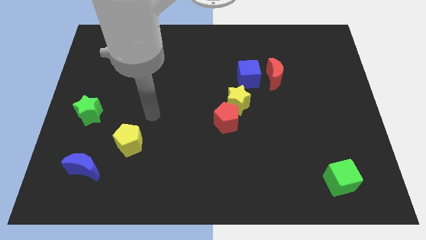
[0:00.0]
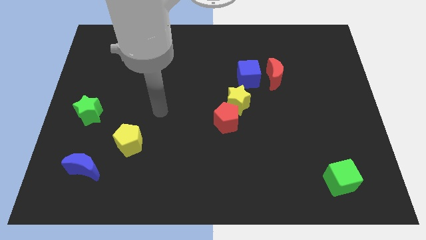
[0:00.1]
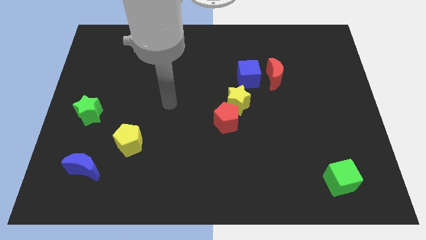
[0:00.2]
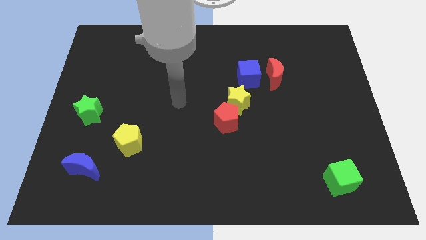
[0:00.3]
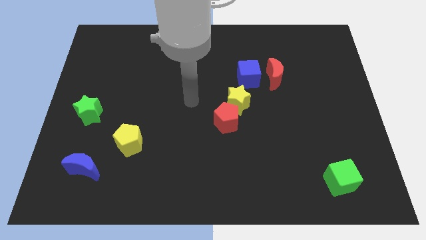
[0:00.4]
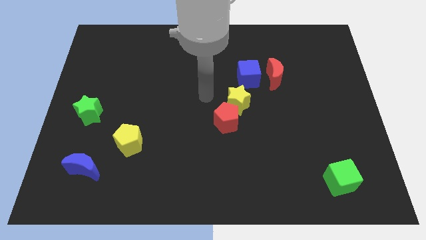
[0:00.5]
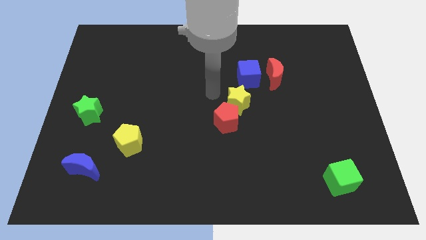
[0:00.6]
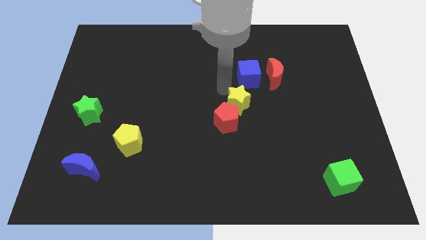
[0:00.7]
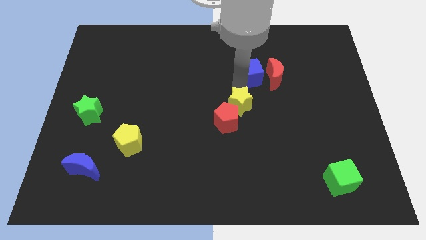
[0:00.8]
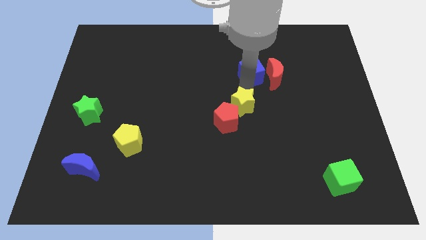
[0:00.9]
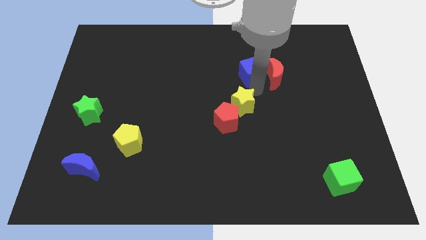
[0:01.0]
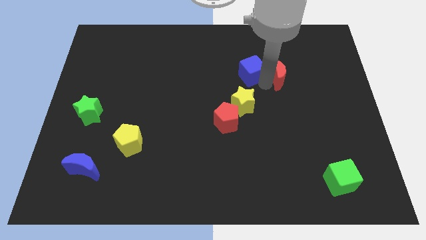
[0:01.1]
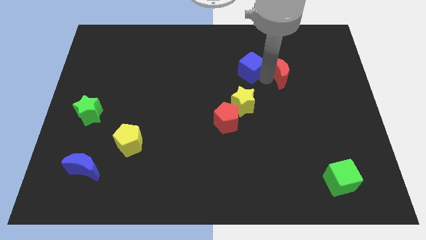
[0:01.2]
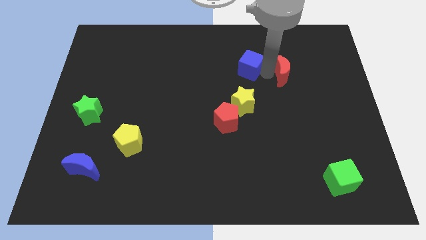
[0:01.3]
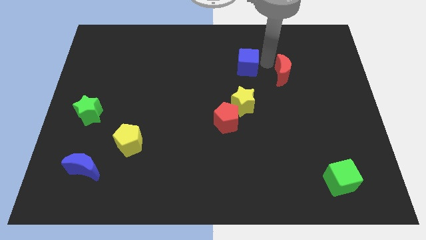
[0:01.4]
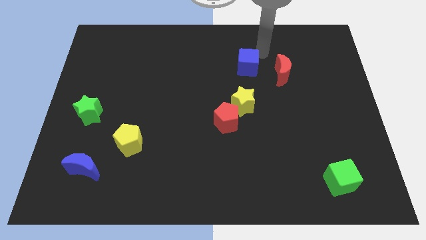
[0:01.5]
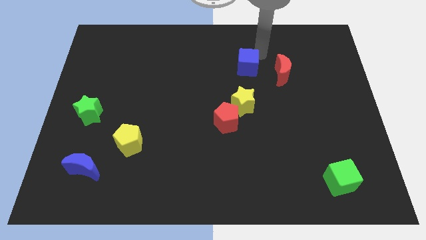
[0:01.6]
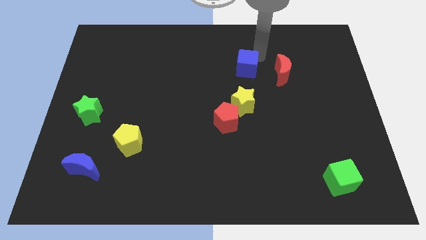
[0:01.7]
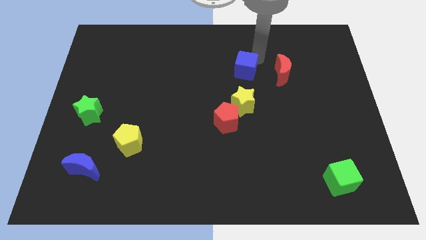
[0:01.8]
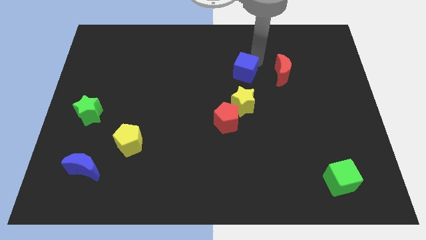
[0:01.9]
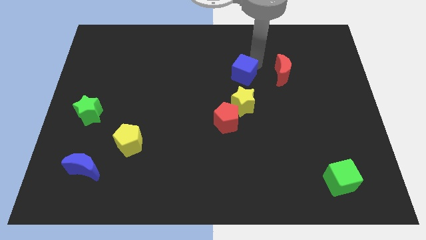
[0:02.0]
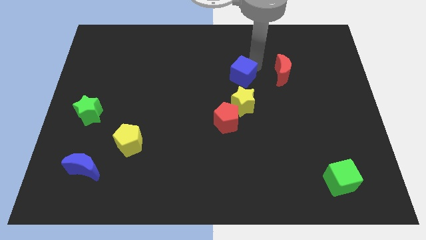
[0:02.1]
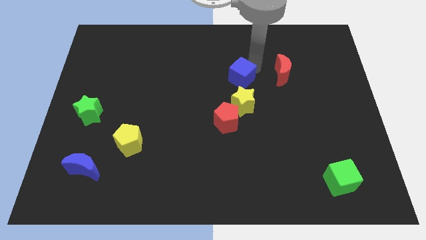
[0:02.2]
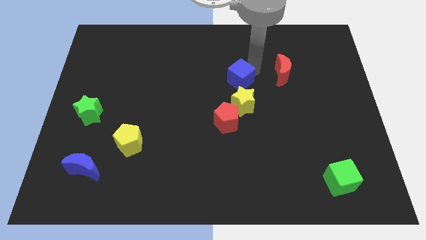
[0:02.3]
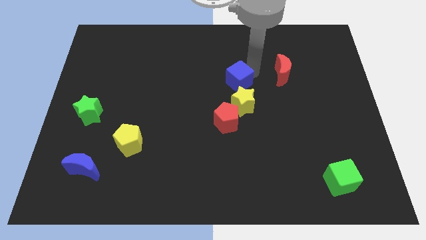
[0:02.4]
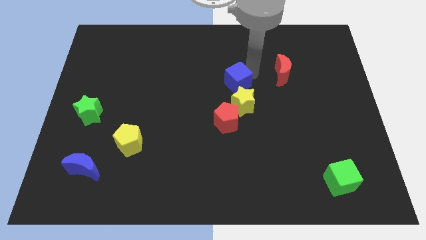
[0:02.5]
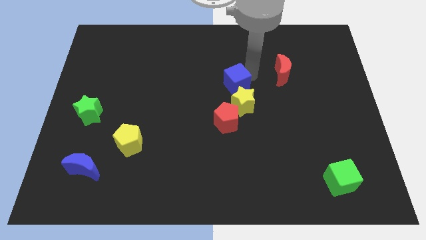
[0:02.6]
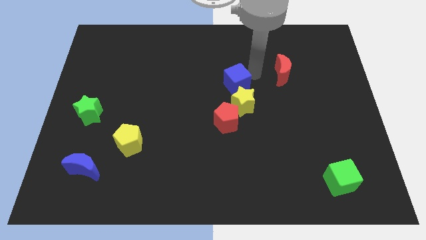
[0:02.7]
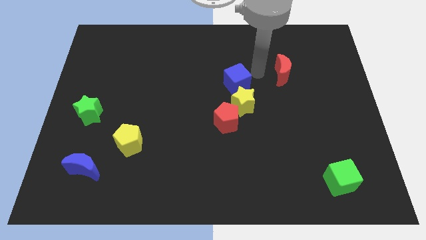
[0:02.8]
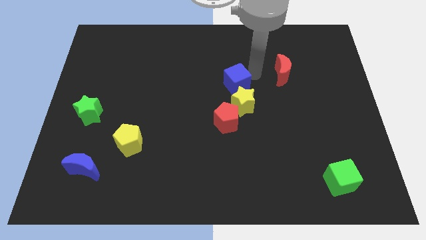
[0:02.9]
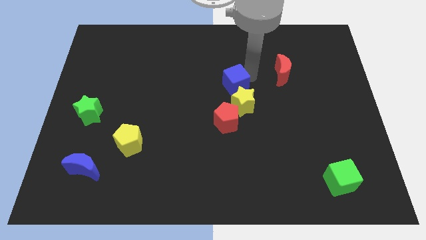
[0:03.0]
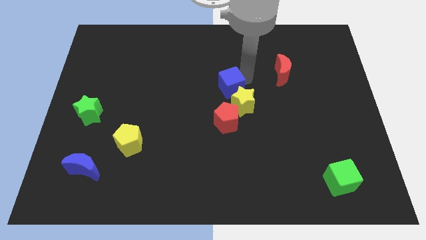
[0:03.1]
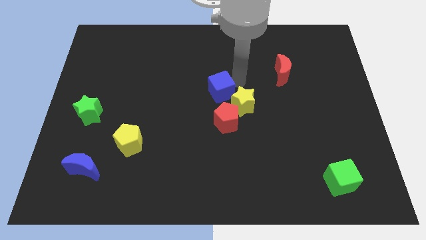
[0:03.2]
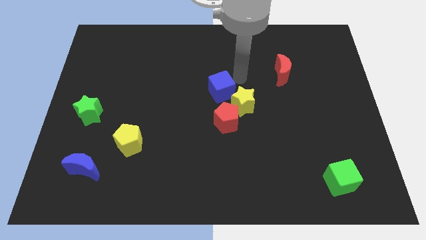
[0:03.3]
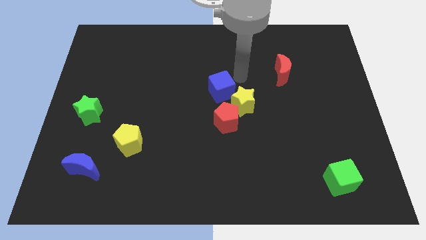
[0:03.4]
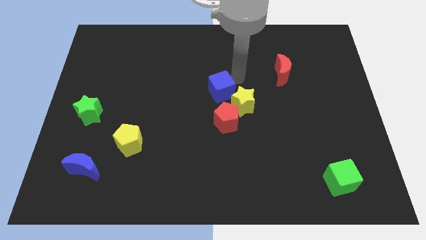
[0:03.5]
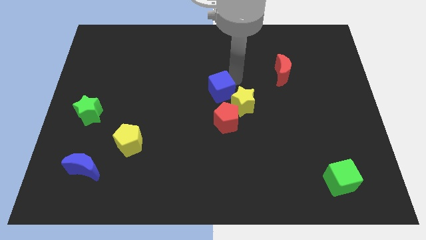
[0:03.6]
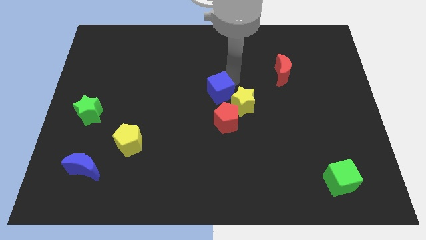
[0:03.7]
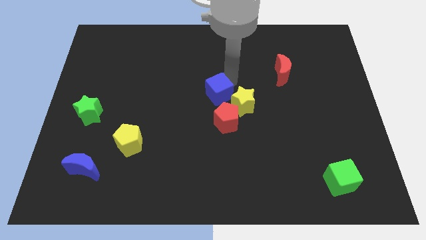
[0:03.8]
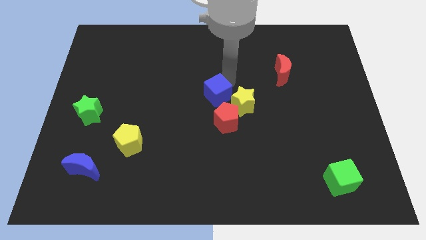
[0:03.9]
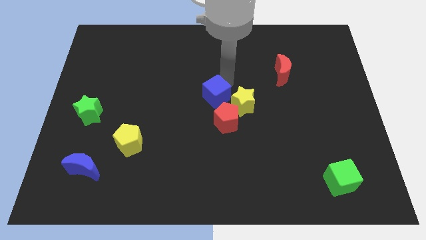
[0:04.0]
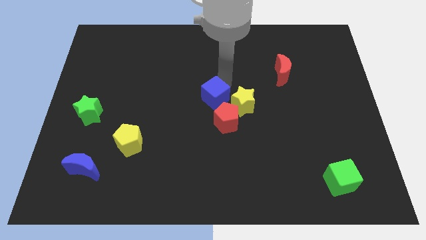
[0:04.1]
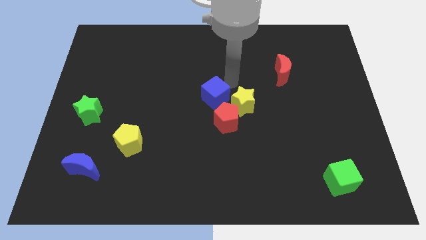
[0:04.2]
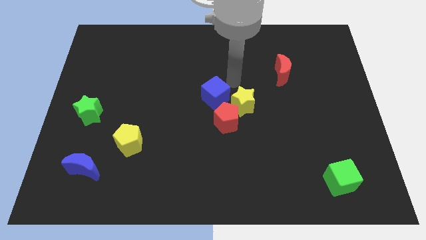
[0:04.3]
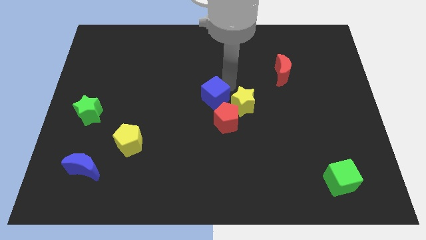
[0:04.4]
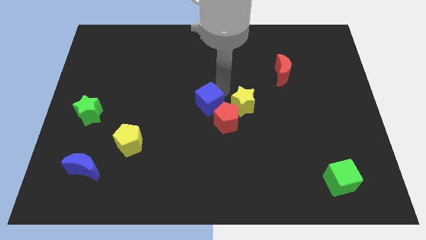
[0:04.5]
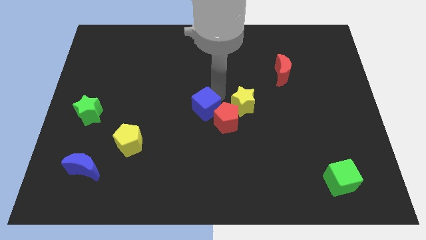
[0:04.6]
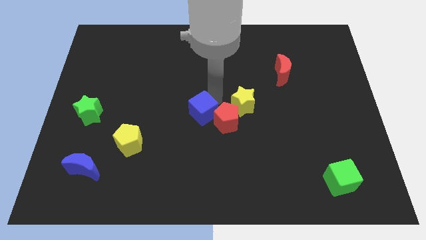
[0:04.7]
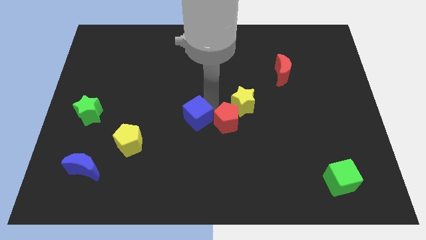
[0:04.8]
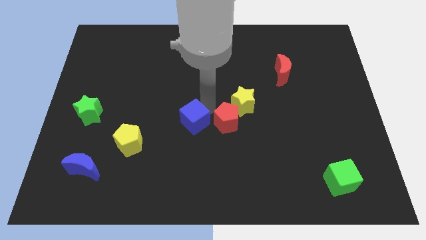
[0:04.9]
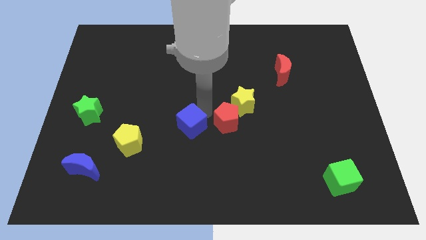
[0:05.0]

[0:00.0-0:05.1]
push the blue cube downwards and then to the left

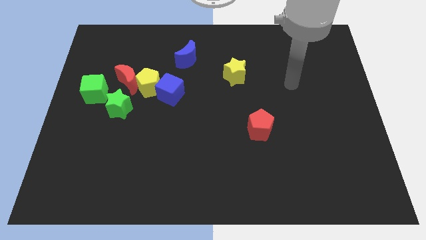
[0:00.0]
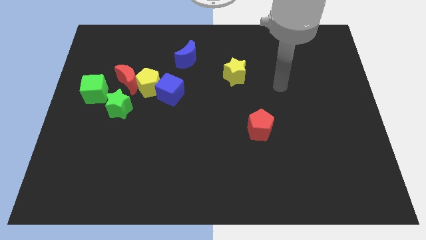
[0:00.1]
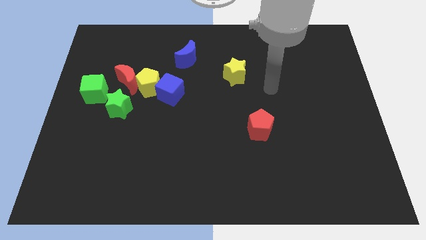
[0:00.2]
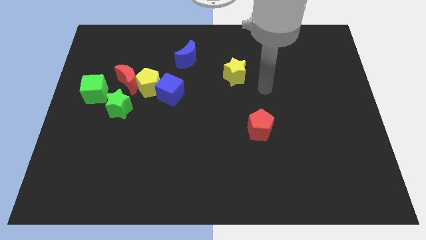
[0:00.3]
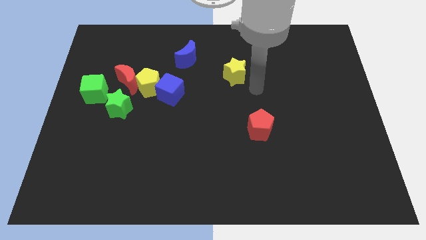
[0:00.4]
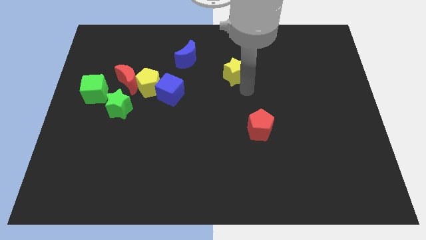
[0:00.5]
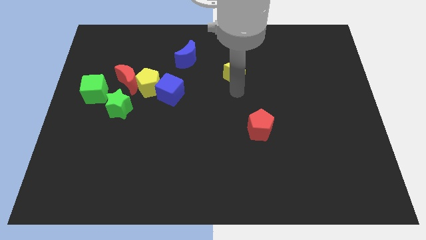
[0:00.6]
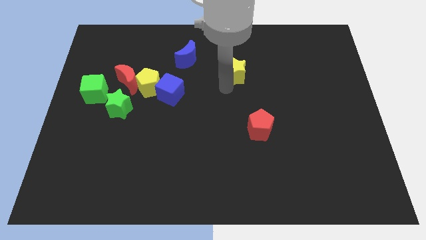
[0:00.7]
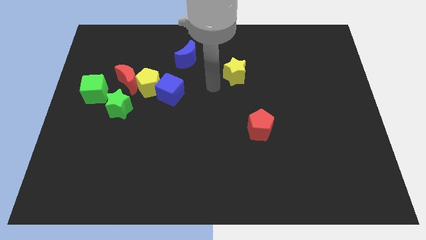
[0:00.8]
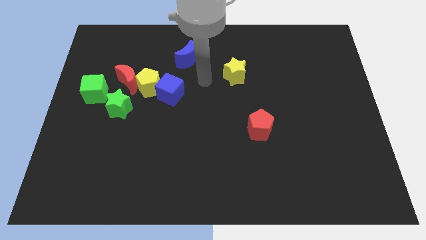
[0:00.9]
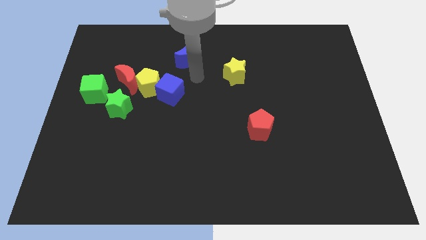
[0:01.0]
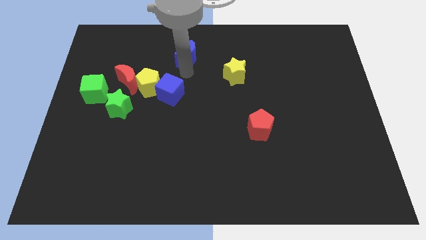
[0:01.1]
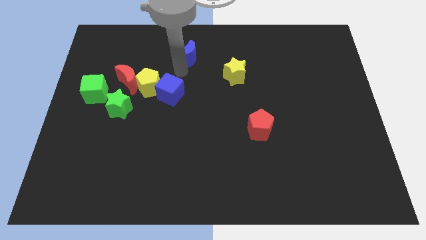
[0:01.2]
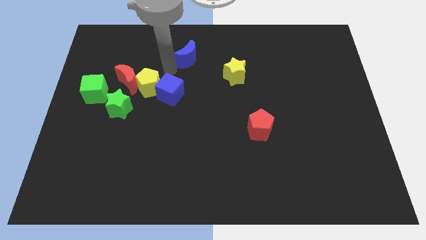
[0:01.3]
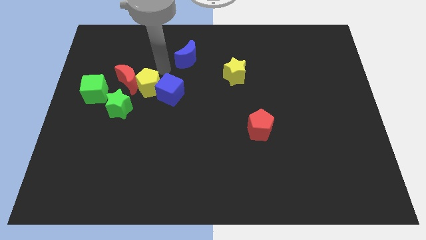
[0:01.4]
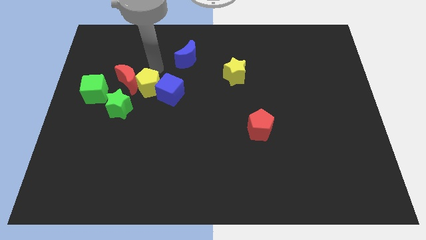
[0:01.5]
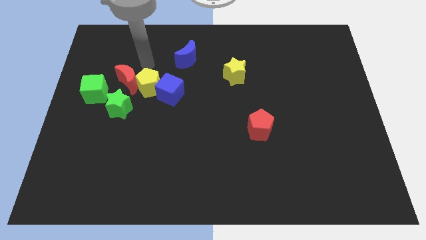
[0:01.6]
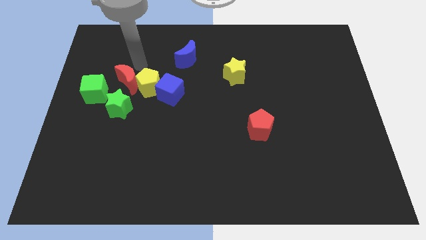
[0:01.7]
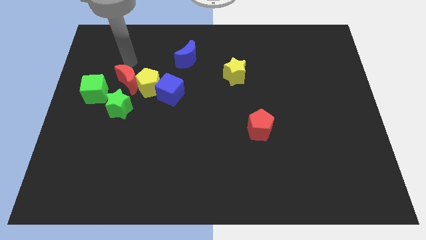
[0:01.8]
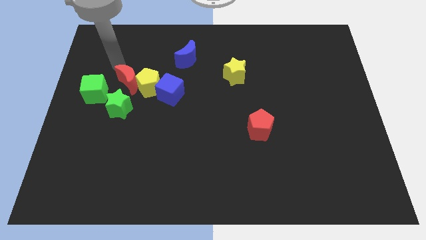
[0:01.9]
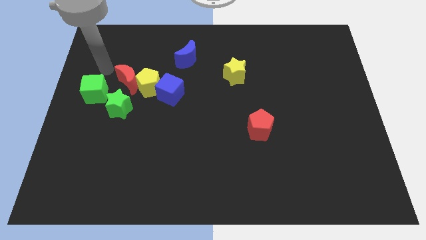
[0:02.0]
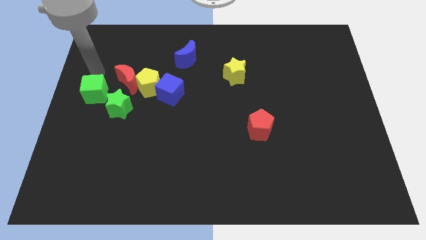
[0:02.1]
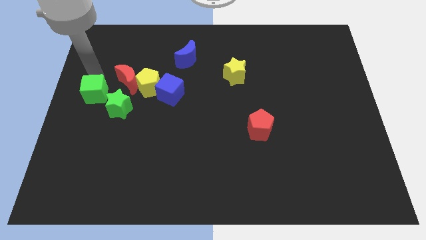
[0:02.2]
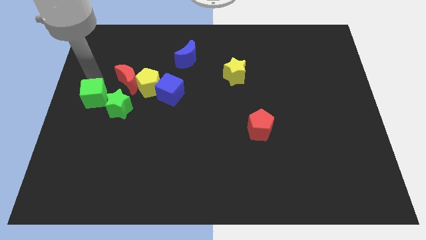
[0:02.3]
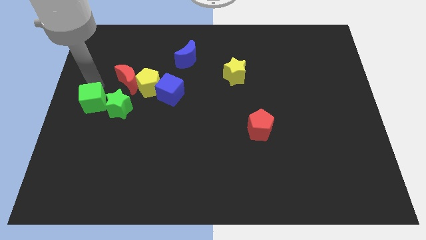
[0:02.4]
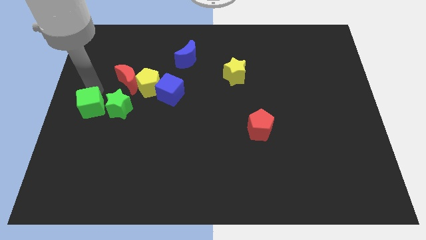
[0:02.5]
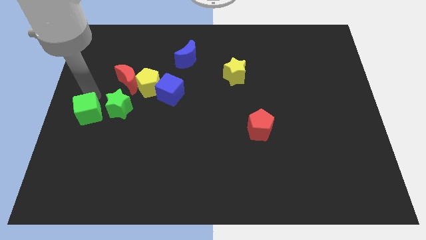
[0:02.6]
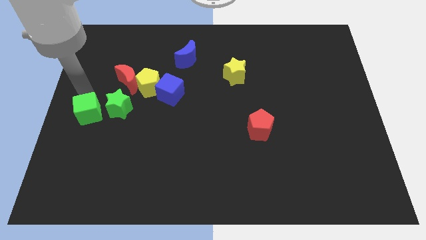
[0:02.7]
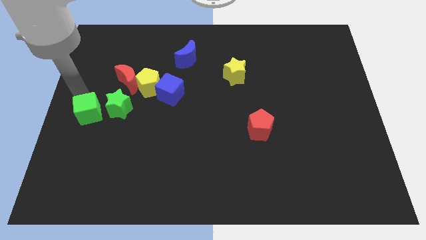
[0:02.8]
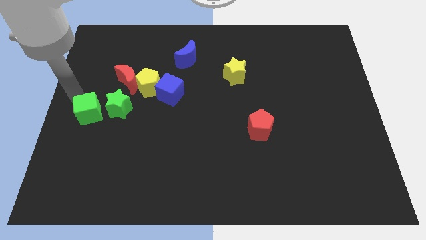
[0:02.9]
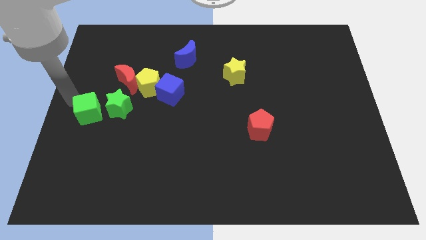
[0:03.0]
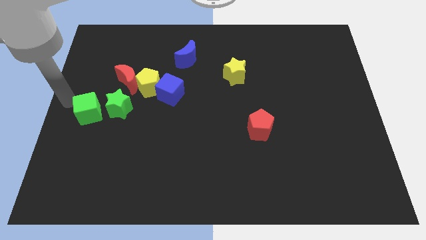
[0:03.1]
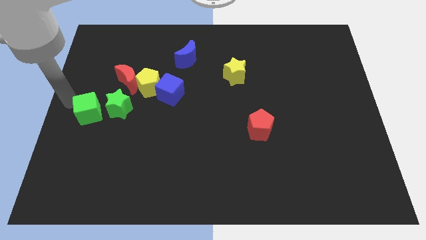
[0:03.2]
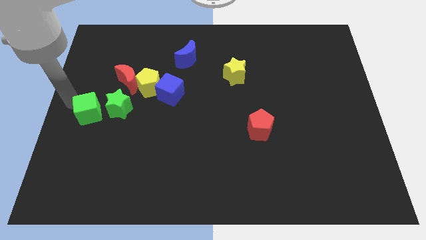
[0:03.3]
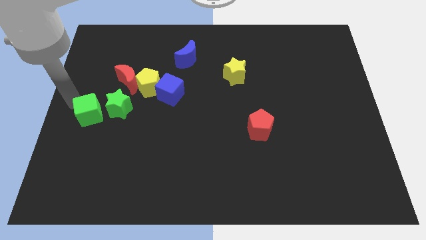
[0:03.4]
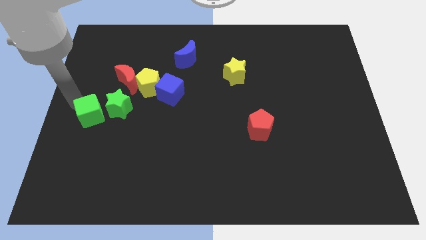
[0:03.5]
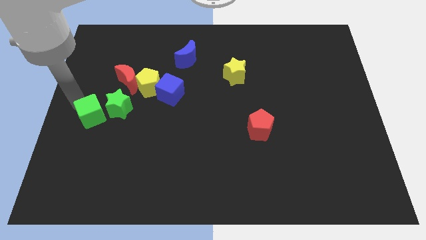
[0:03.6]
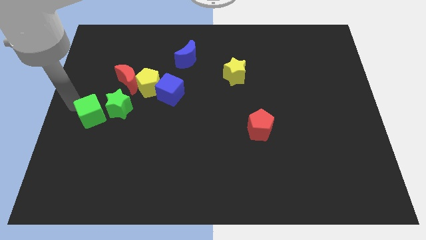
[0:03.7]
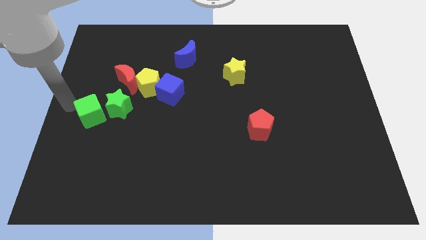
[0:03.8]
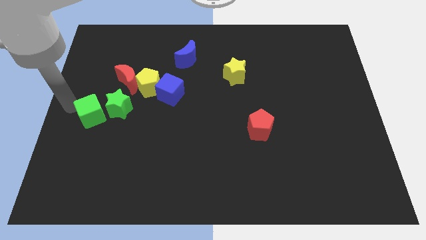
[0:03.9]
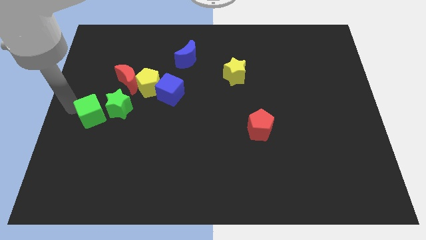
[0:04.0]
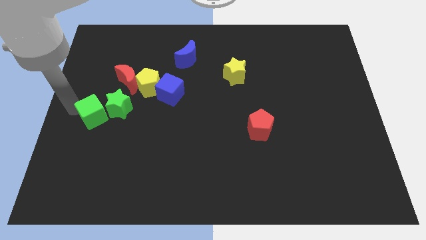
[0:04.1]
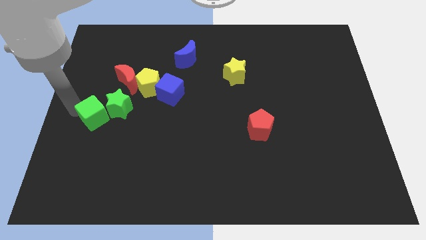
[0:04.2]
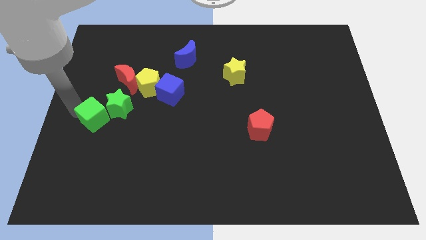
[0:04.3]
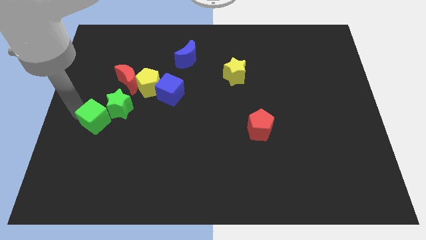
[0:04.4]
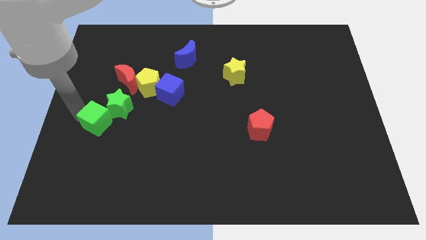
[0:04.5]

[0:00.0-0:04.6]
slightly slide the green cube diagonally downwards and to the right
